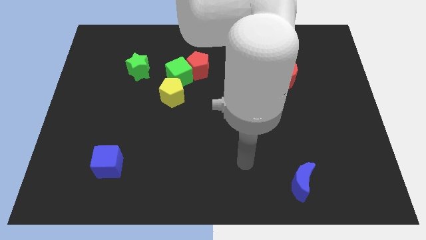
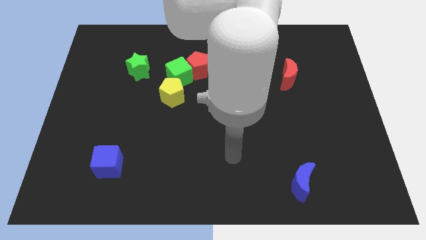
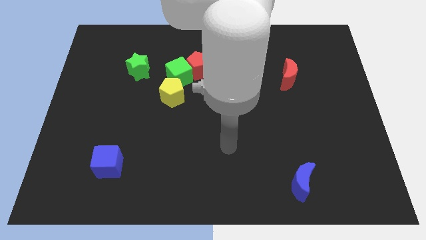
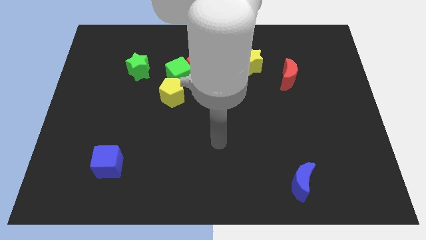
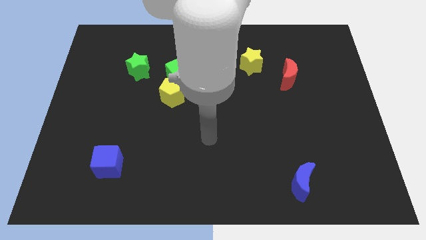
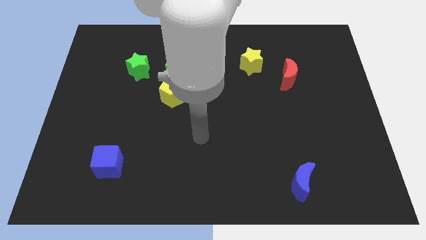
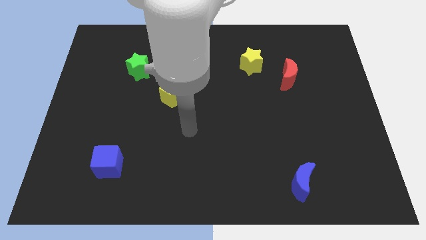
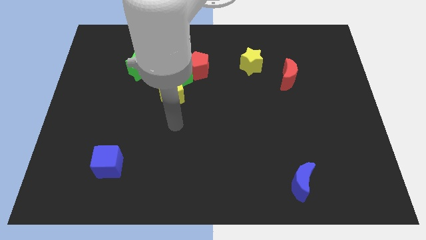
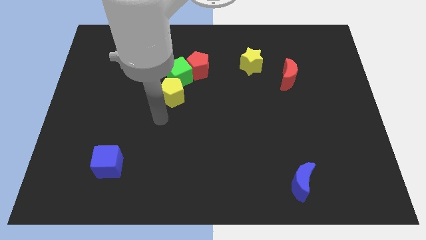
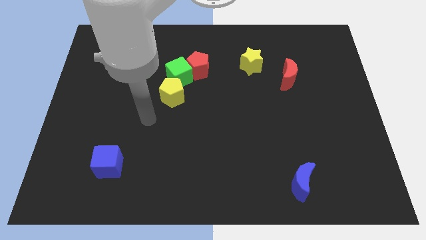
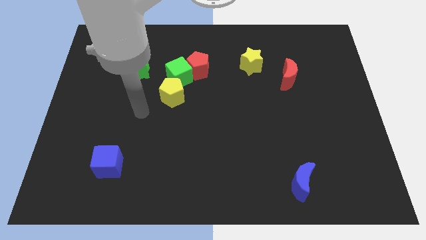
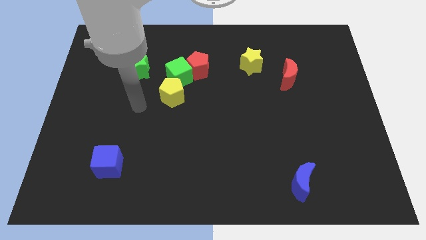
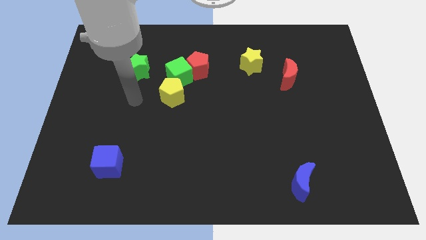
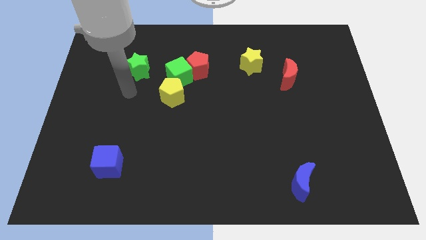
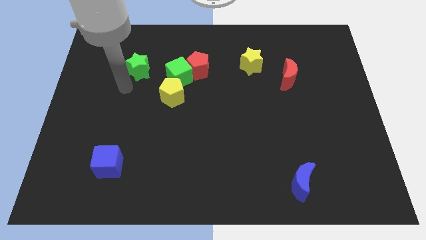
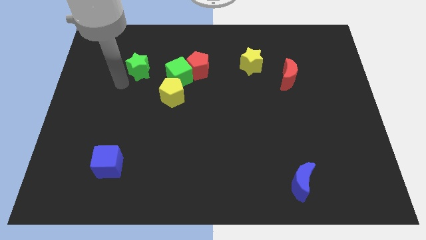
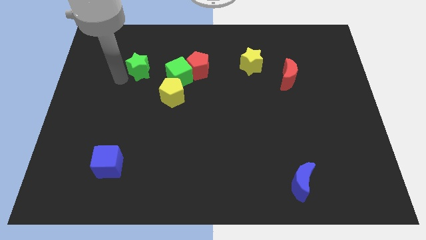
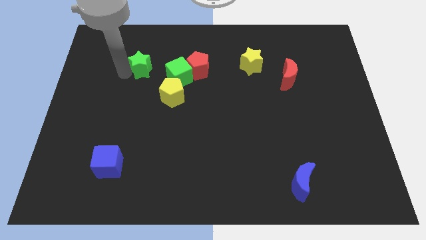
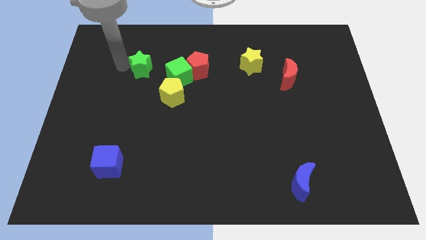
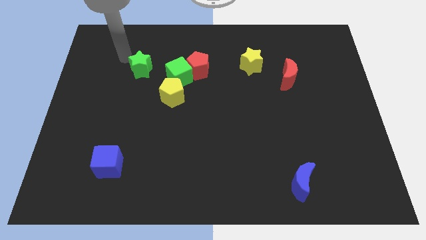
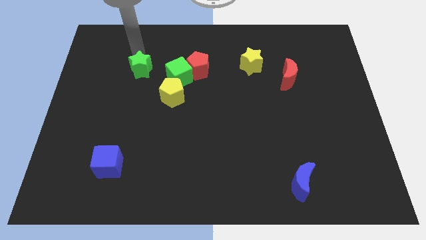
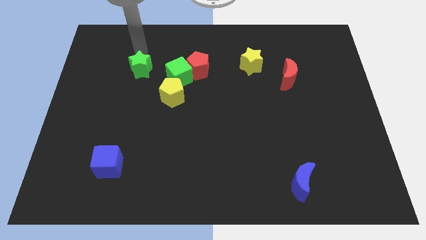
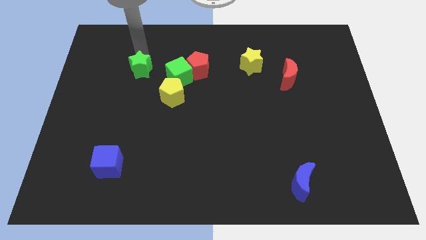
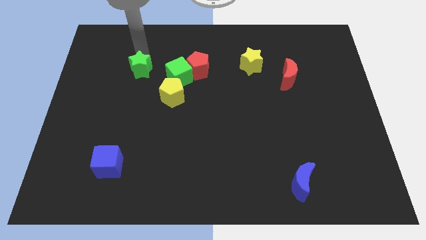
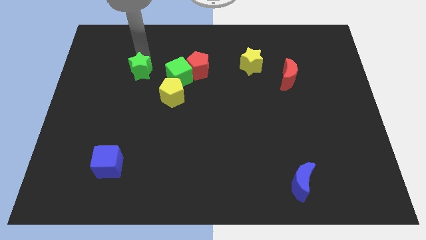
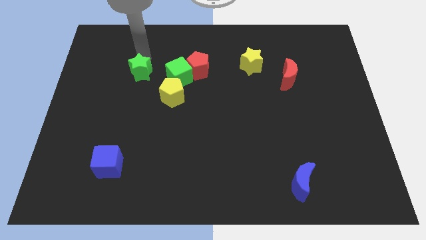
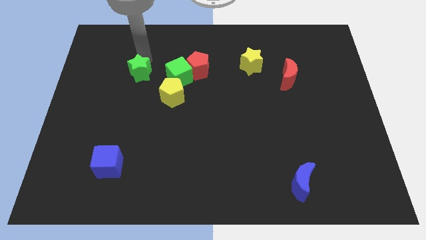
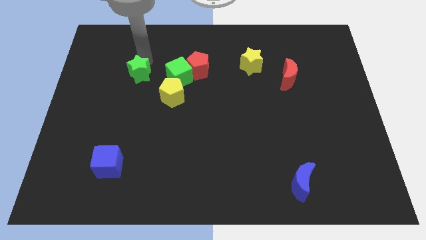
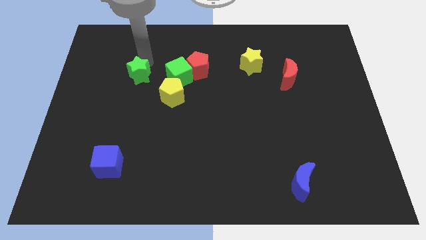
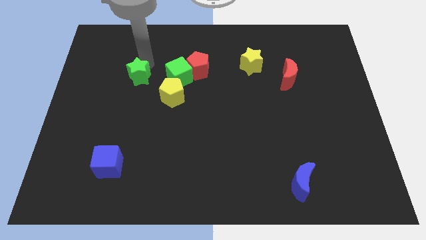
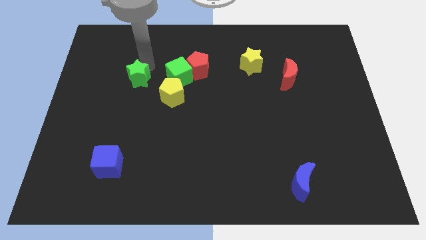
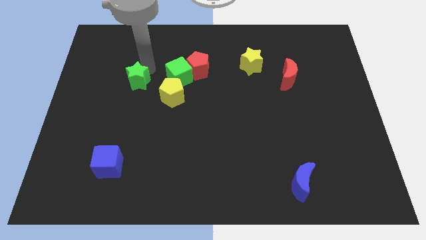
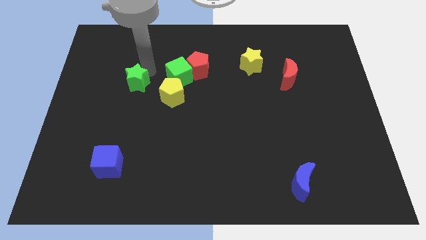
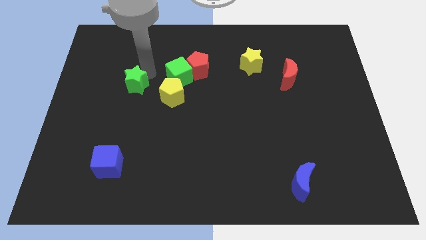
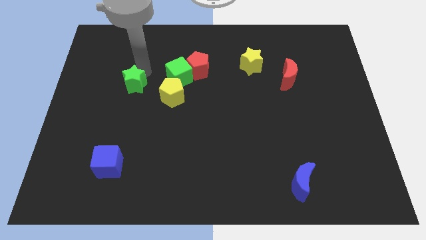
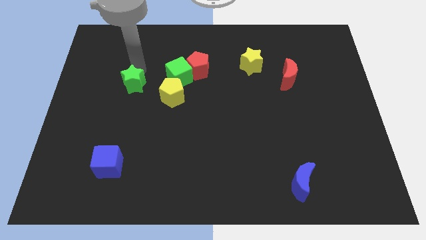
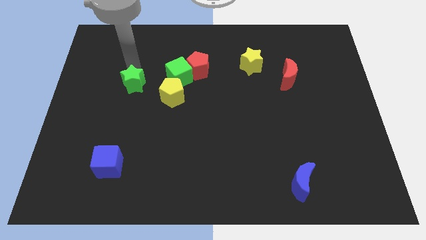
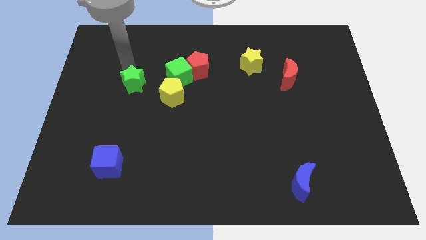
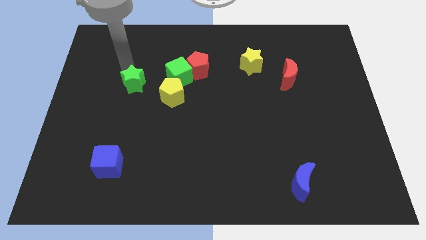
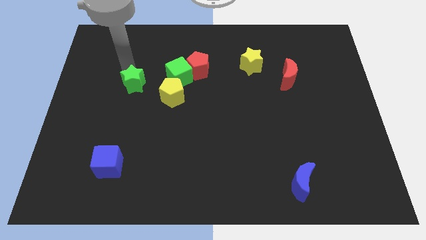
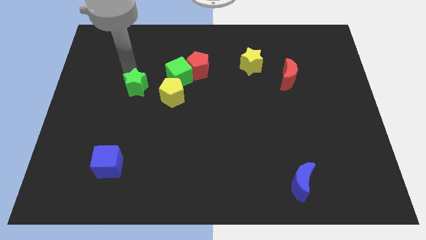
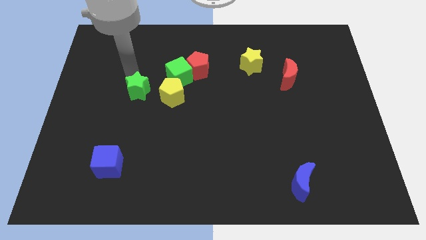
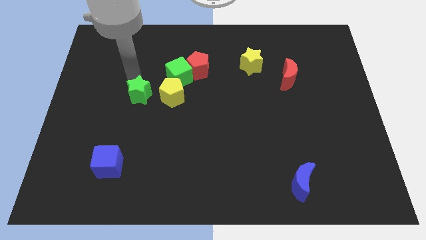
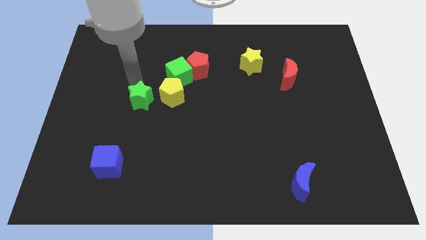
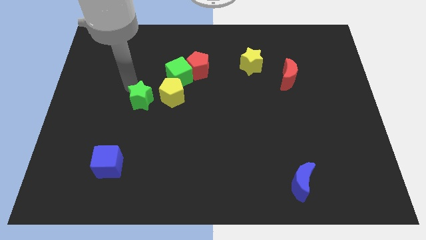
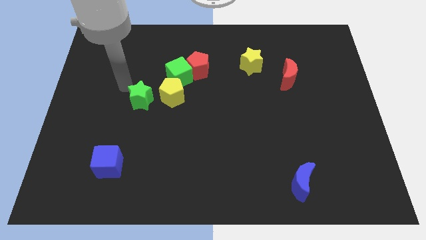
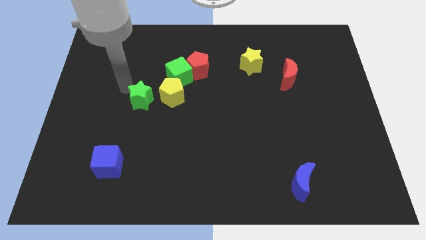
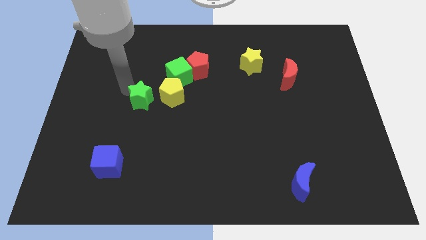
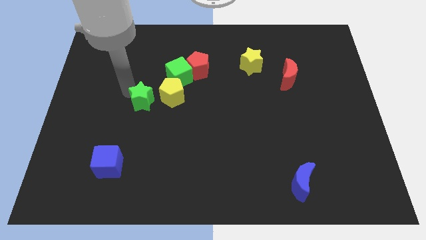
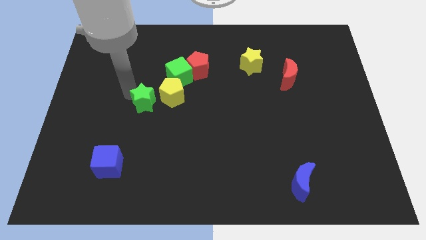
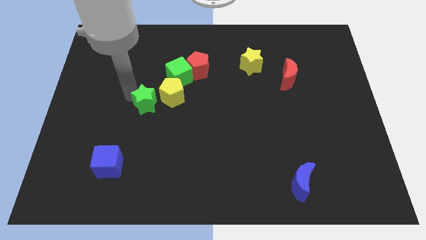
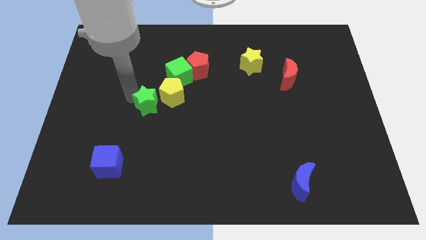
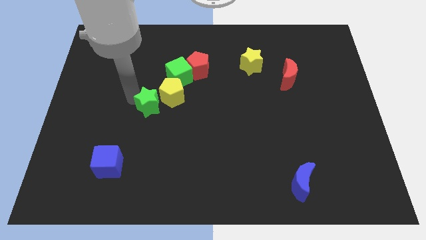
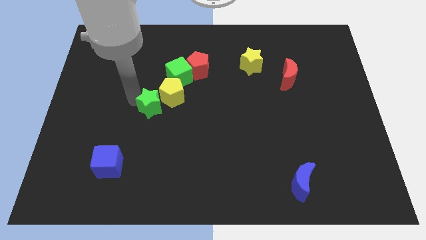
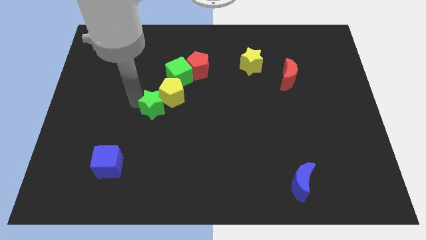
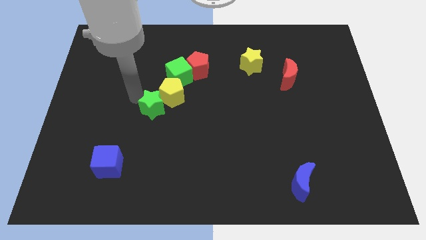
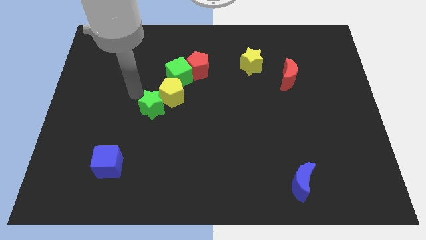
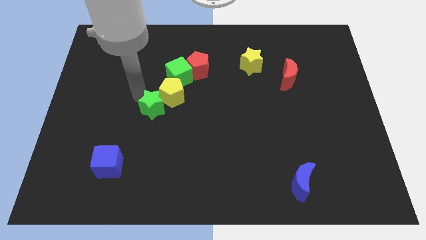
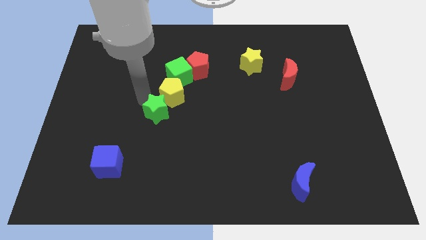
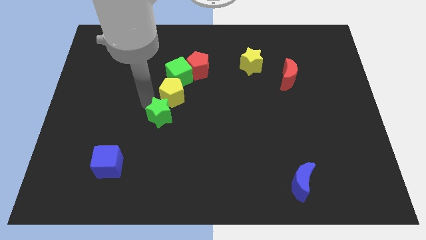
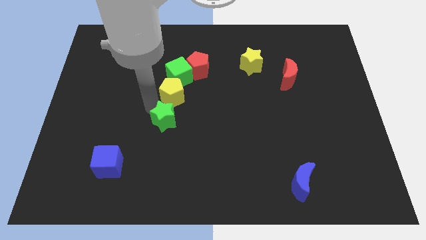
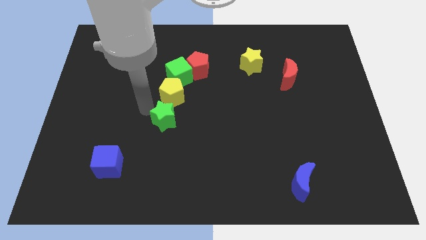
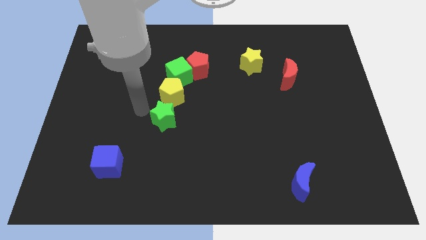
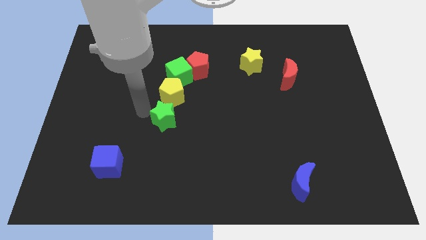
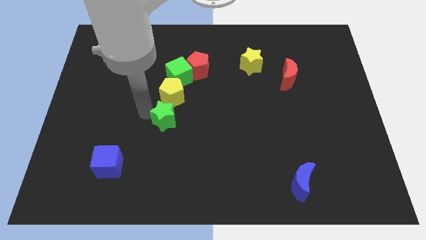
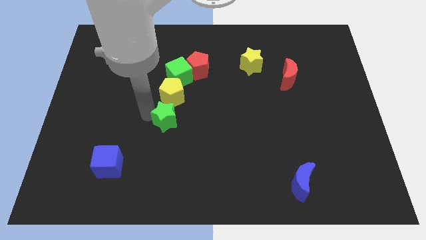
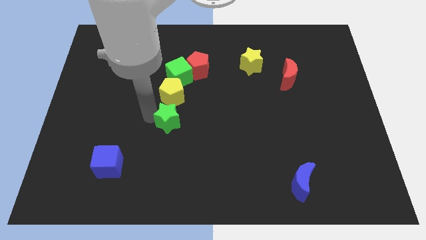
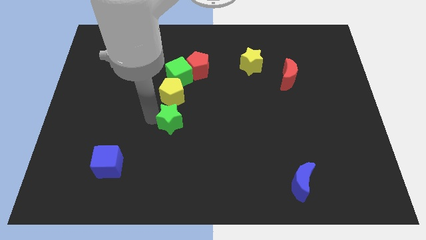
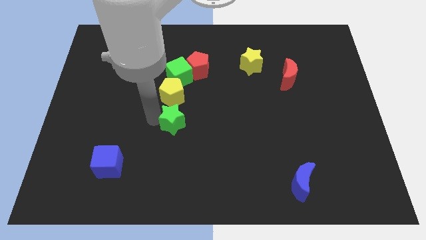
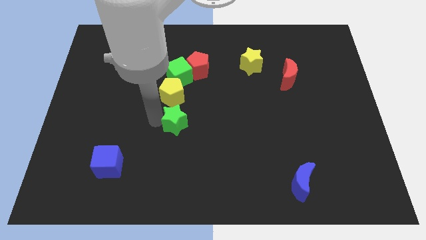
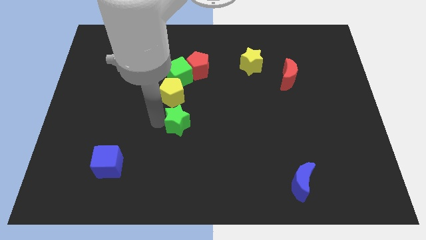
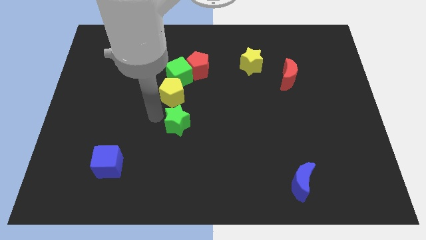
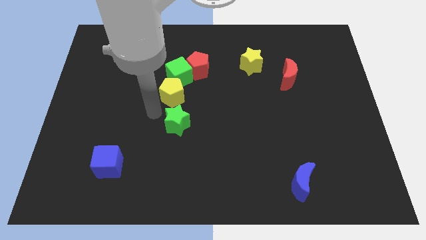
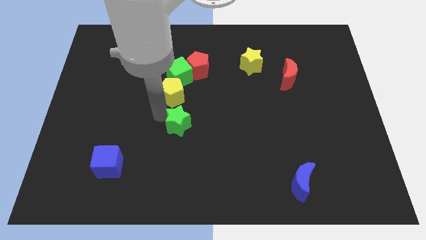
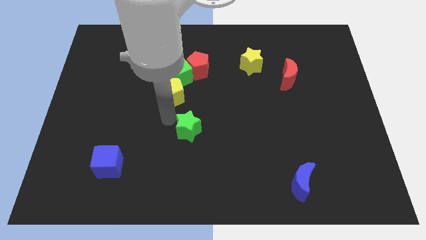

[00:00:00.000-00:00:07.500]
push the green star down and right diagonally

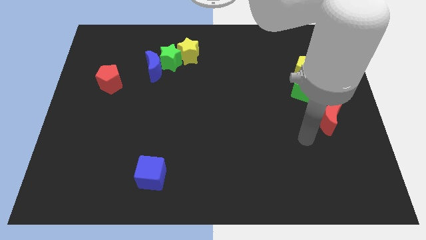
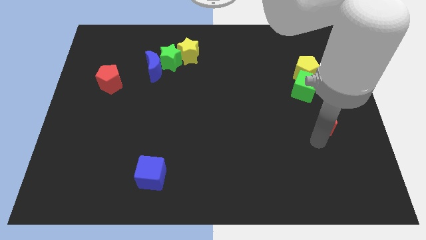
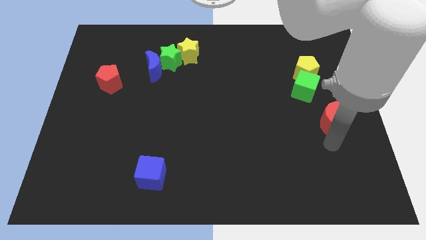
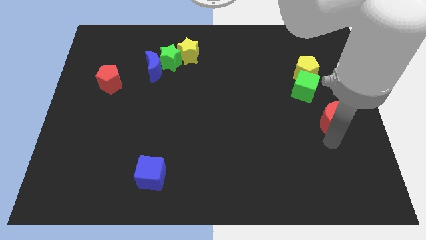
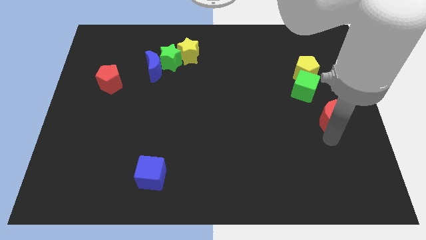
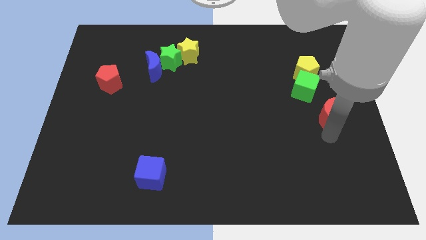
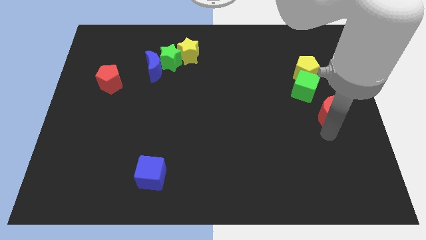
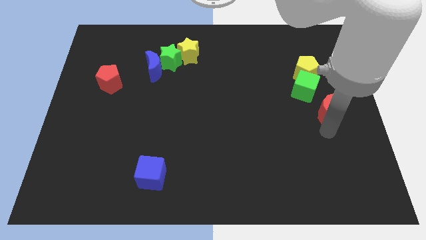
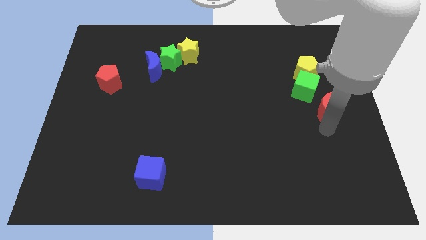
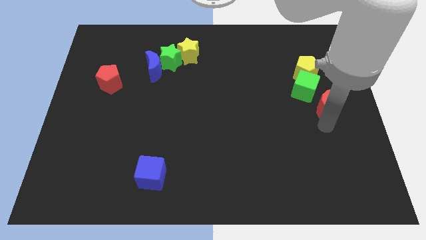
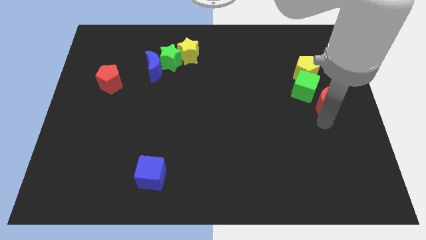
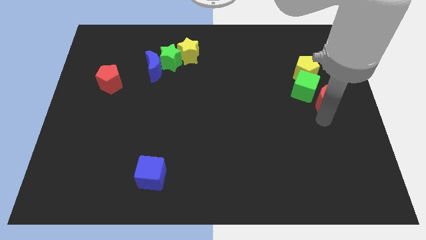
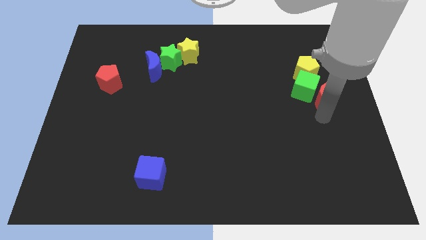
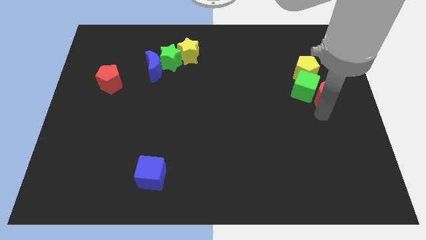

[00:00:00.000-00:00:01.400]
slightly slide the red moon up
